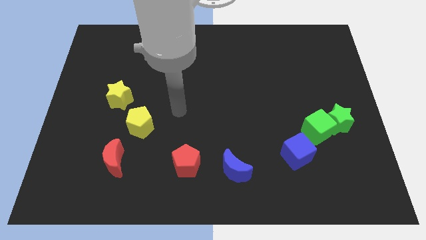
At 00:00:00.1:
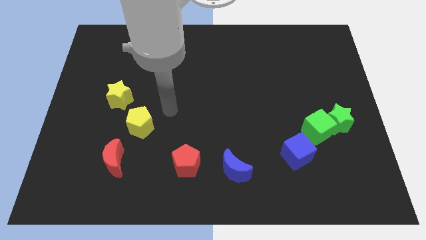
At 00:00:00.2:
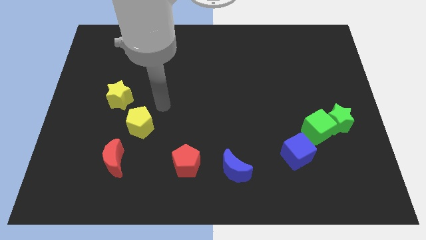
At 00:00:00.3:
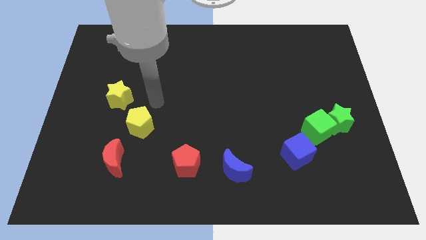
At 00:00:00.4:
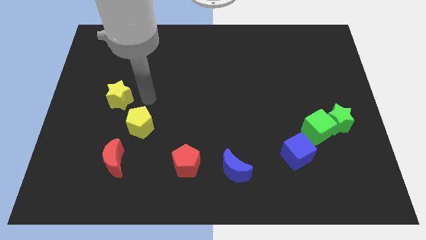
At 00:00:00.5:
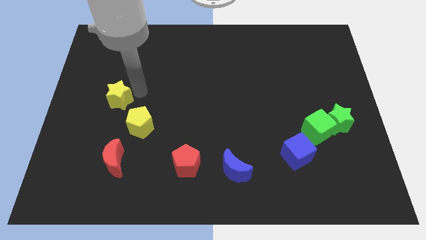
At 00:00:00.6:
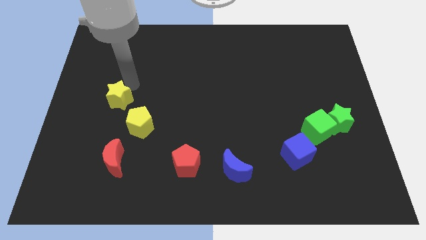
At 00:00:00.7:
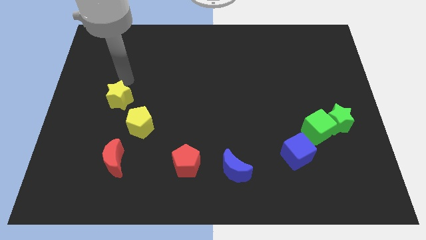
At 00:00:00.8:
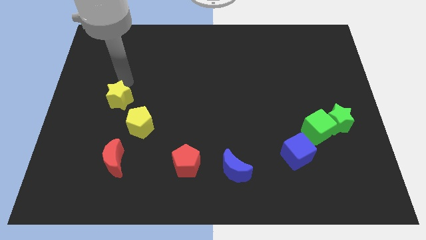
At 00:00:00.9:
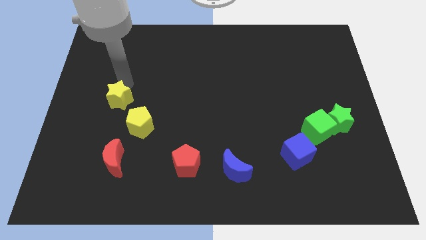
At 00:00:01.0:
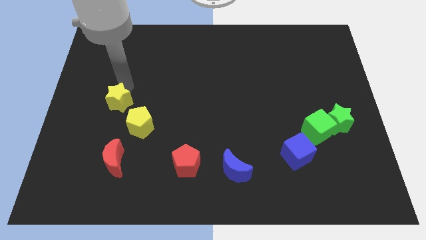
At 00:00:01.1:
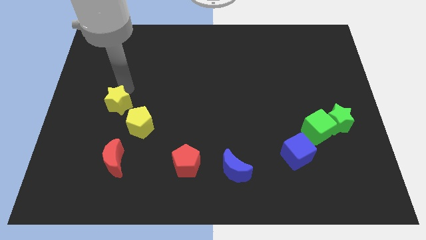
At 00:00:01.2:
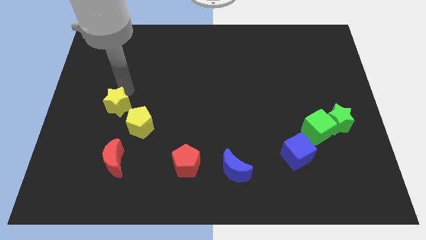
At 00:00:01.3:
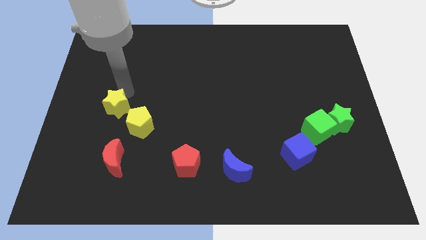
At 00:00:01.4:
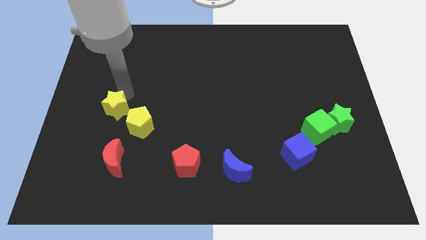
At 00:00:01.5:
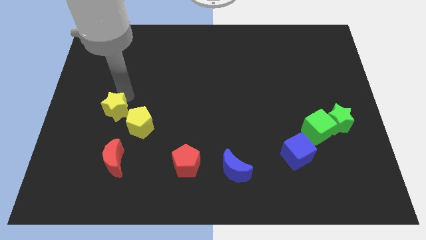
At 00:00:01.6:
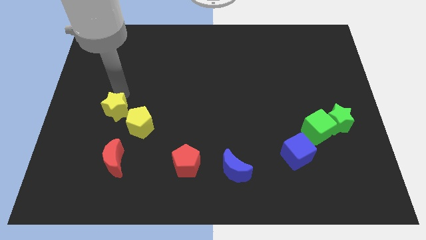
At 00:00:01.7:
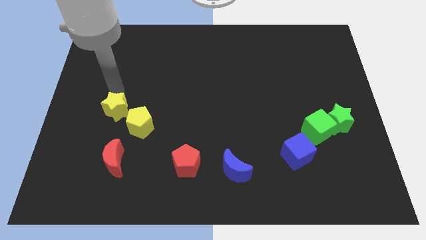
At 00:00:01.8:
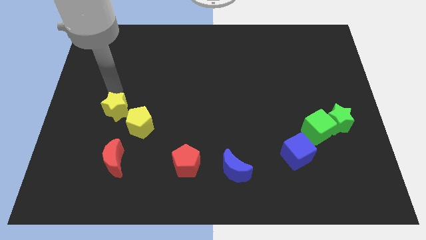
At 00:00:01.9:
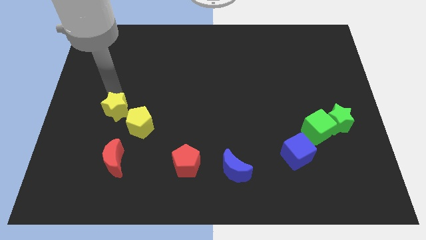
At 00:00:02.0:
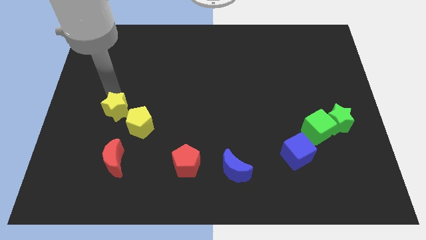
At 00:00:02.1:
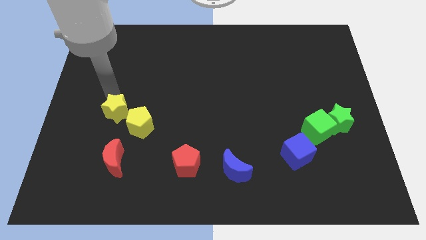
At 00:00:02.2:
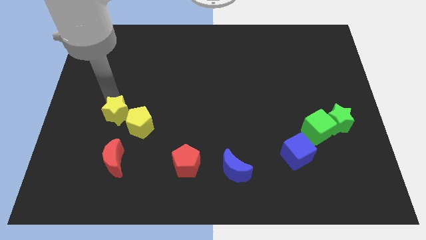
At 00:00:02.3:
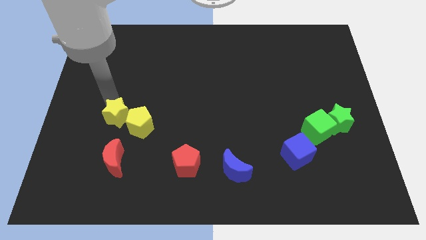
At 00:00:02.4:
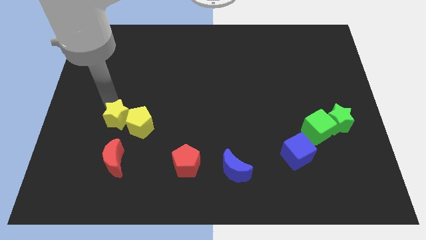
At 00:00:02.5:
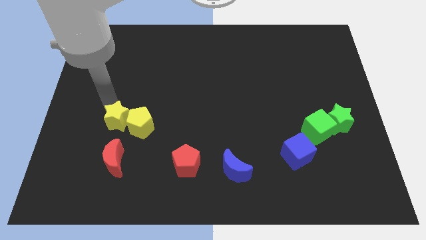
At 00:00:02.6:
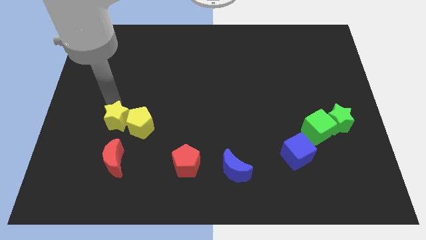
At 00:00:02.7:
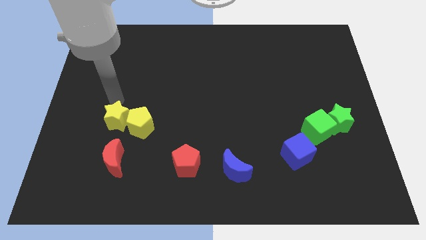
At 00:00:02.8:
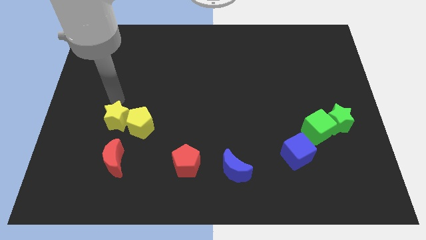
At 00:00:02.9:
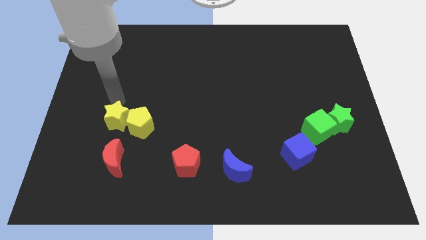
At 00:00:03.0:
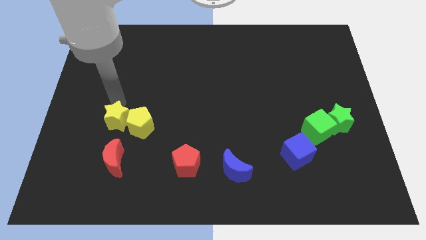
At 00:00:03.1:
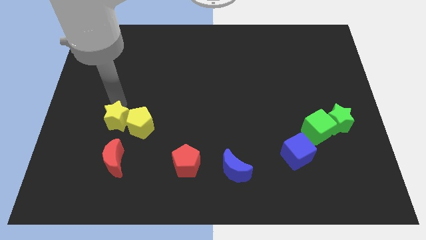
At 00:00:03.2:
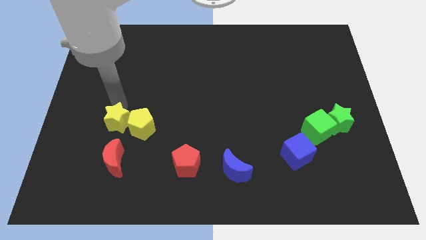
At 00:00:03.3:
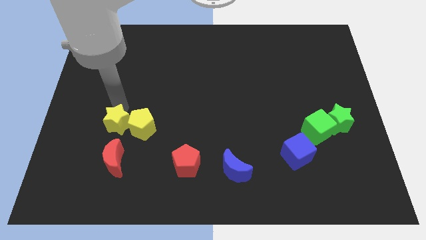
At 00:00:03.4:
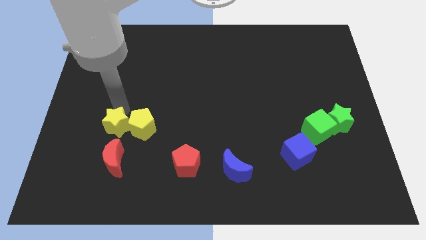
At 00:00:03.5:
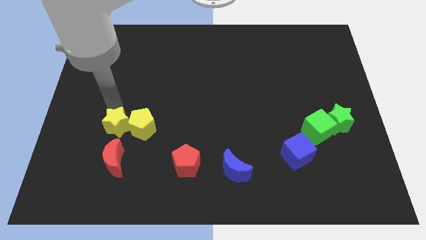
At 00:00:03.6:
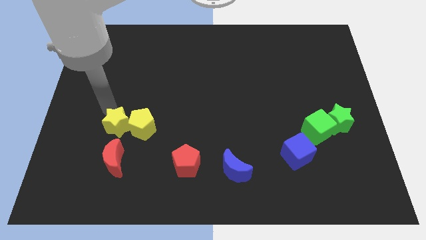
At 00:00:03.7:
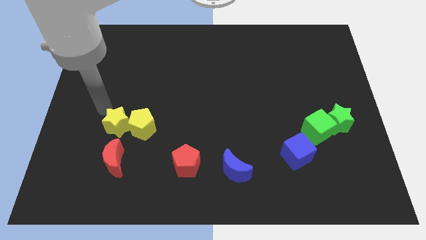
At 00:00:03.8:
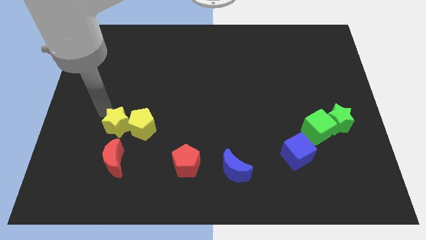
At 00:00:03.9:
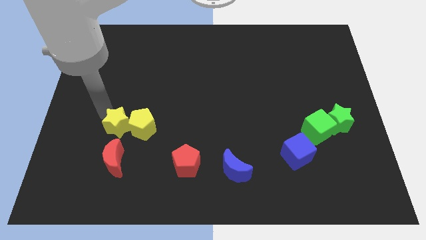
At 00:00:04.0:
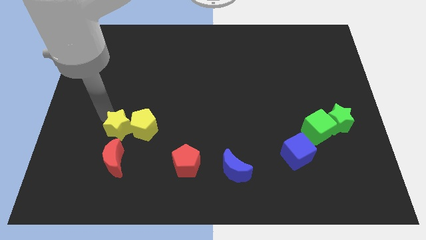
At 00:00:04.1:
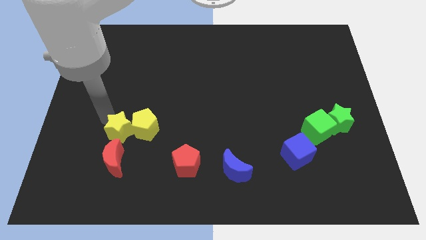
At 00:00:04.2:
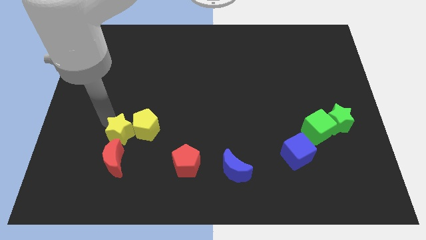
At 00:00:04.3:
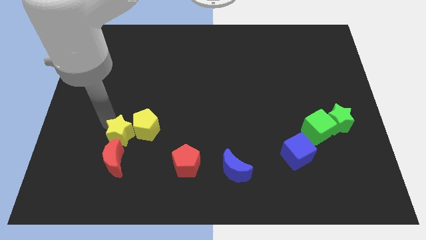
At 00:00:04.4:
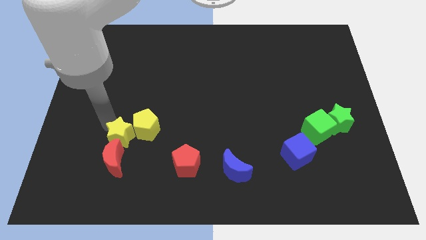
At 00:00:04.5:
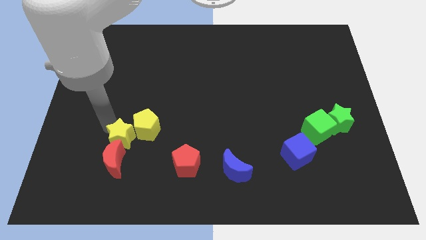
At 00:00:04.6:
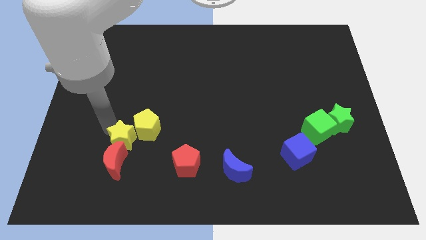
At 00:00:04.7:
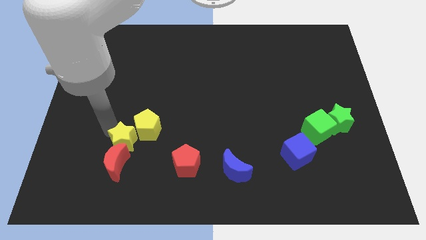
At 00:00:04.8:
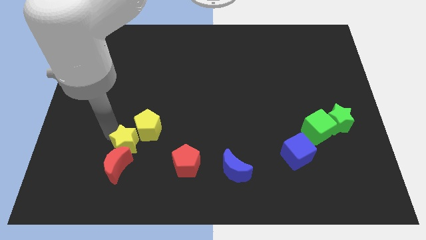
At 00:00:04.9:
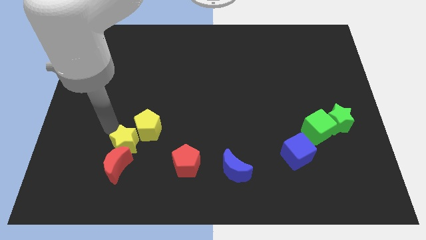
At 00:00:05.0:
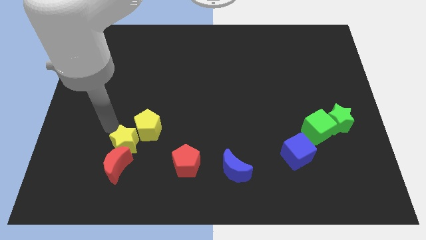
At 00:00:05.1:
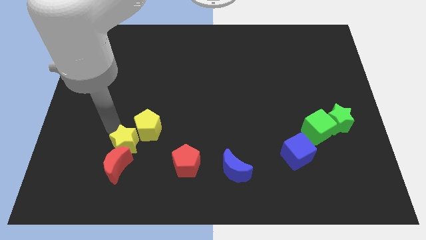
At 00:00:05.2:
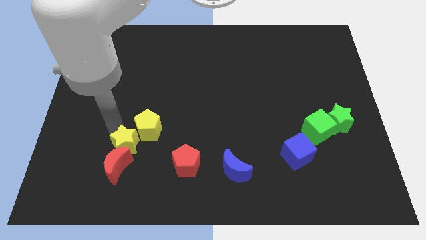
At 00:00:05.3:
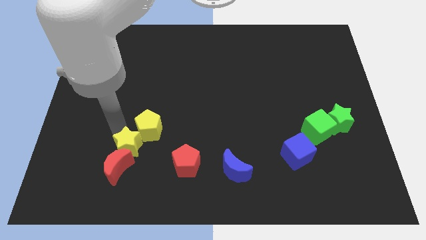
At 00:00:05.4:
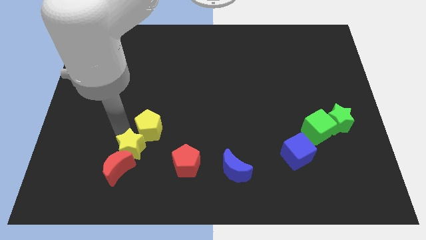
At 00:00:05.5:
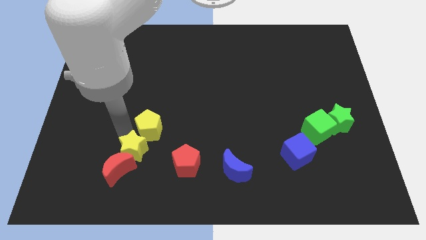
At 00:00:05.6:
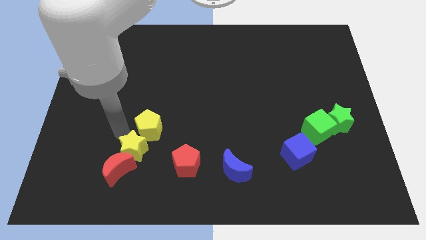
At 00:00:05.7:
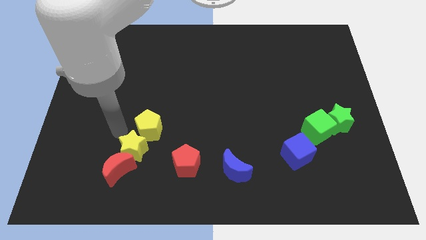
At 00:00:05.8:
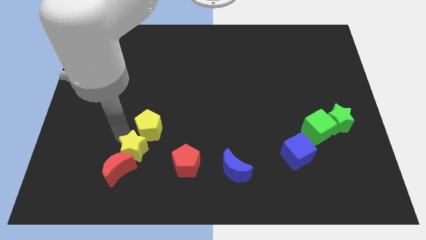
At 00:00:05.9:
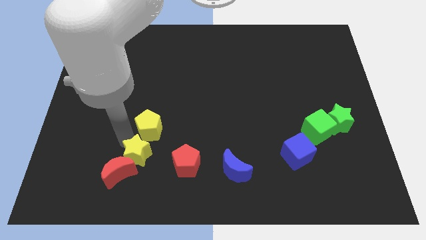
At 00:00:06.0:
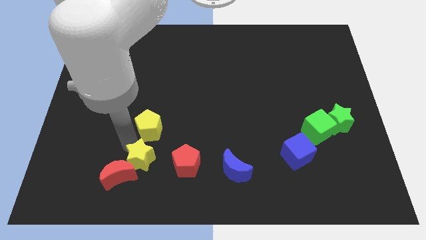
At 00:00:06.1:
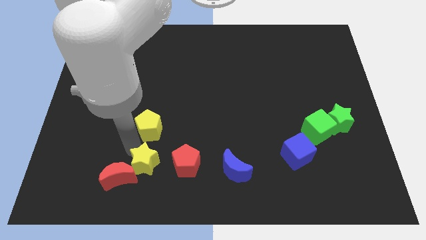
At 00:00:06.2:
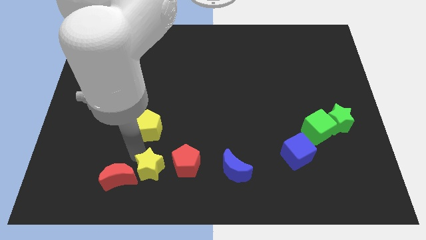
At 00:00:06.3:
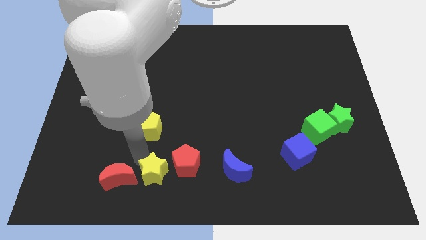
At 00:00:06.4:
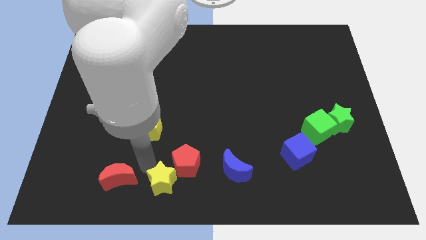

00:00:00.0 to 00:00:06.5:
push the yellow star to the bottom side

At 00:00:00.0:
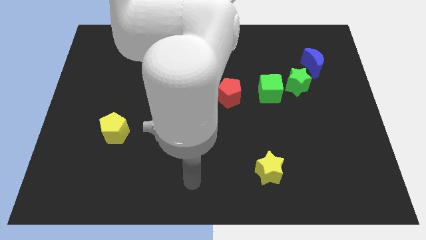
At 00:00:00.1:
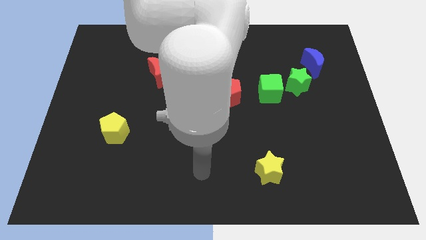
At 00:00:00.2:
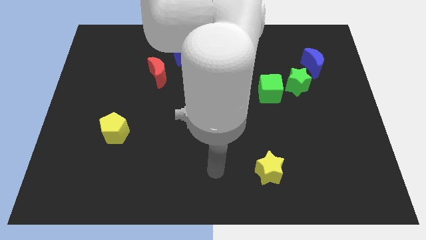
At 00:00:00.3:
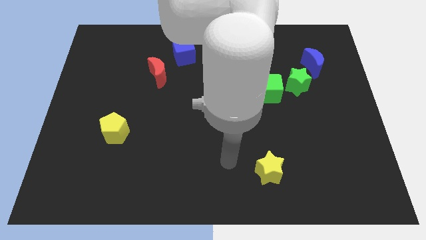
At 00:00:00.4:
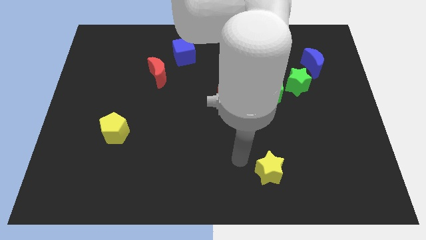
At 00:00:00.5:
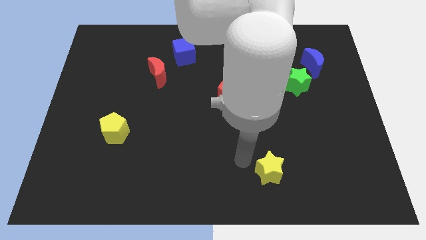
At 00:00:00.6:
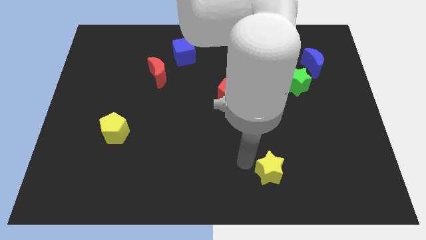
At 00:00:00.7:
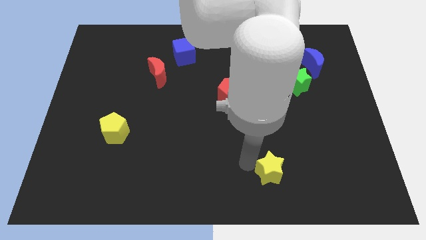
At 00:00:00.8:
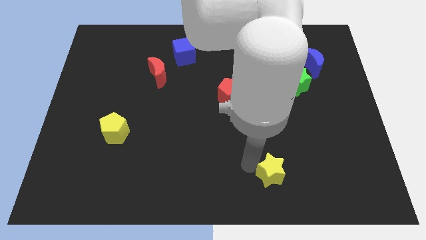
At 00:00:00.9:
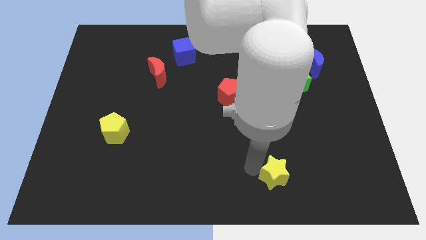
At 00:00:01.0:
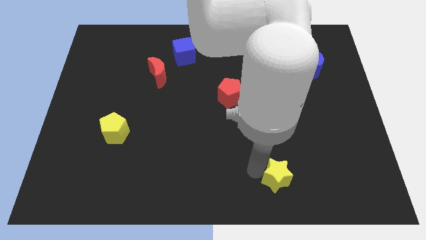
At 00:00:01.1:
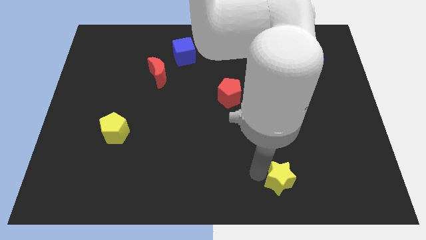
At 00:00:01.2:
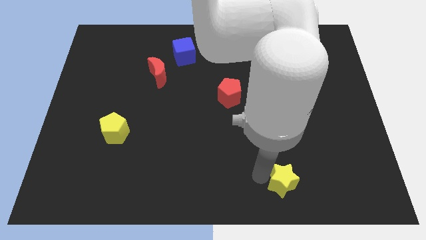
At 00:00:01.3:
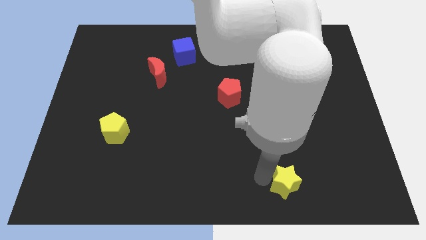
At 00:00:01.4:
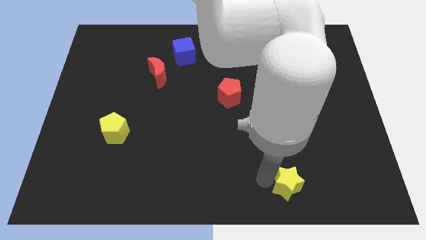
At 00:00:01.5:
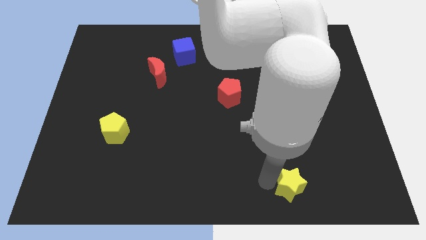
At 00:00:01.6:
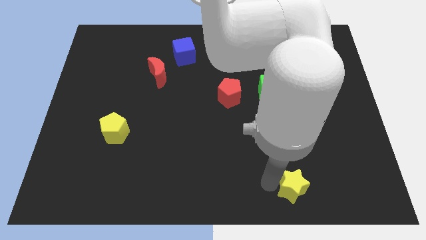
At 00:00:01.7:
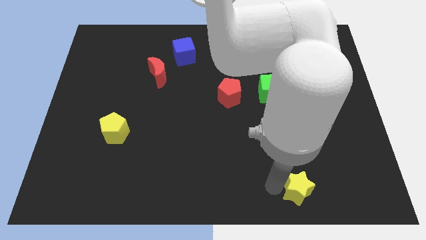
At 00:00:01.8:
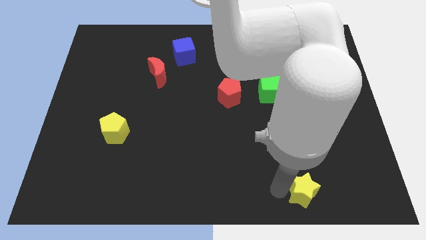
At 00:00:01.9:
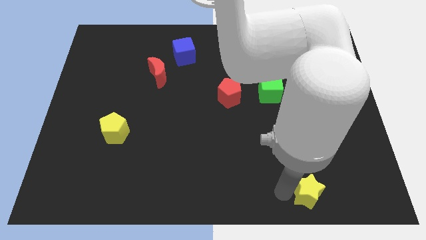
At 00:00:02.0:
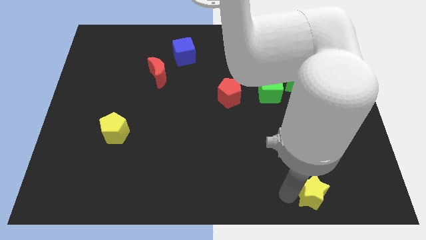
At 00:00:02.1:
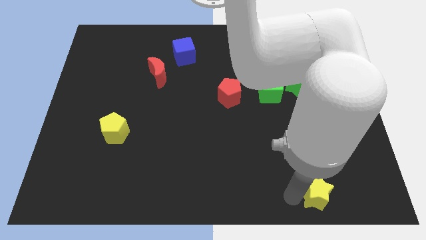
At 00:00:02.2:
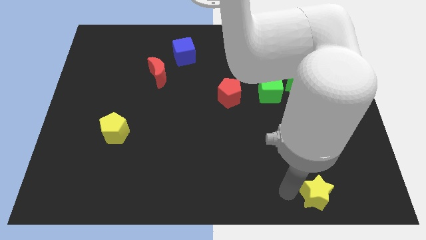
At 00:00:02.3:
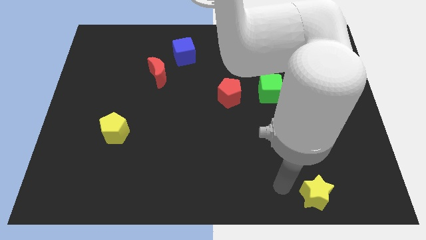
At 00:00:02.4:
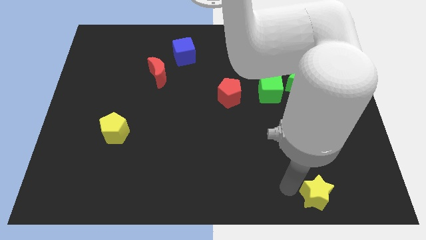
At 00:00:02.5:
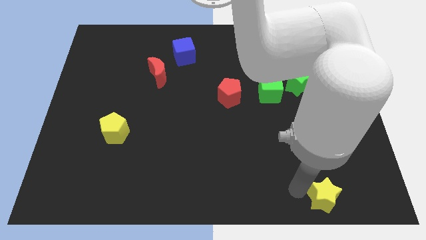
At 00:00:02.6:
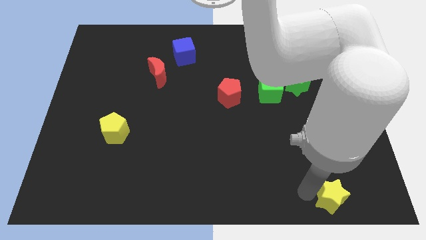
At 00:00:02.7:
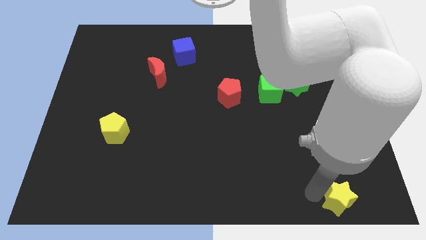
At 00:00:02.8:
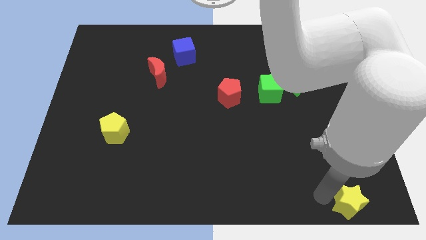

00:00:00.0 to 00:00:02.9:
move the yellow star to the lower right corner
